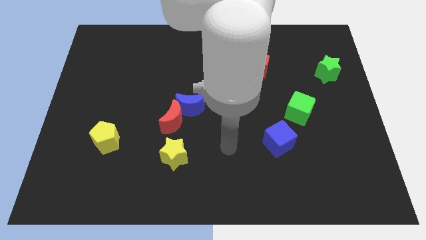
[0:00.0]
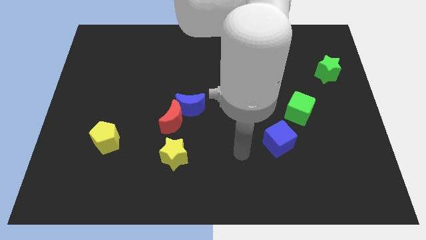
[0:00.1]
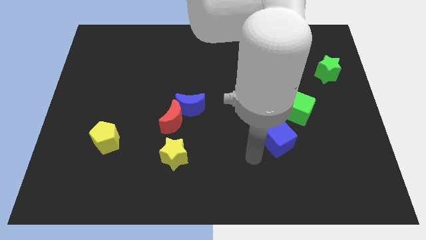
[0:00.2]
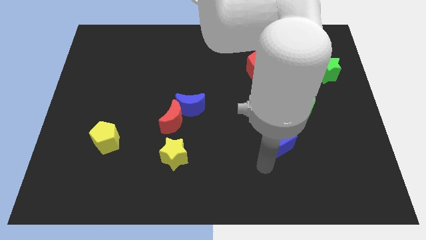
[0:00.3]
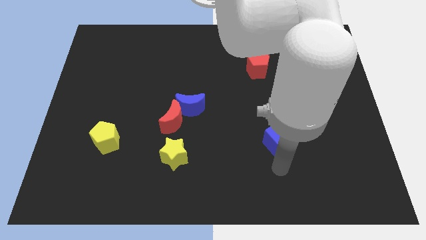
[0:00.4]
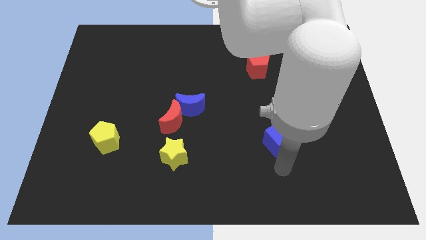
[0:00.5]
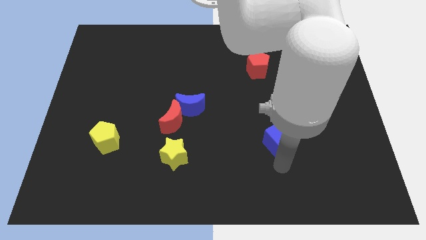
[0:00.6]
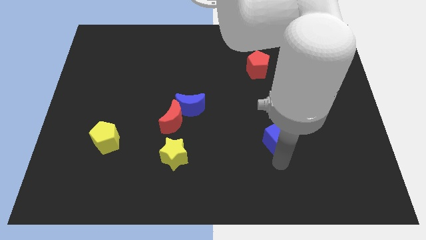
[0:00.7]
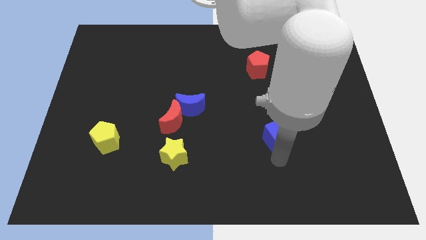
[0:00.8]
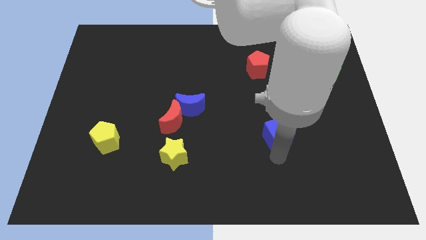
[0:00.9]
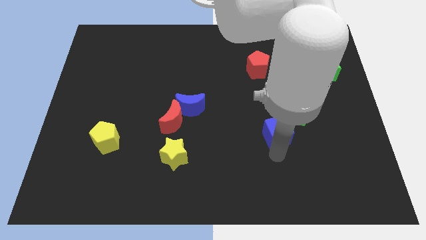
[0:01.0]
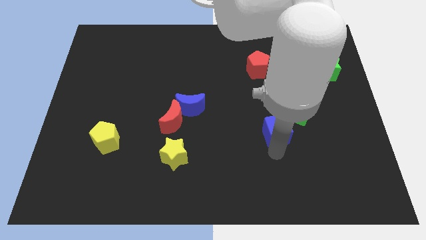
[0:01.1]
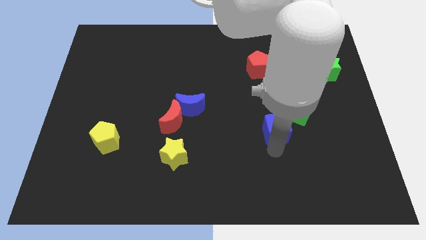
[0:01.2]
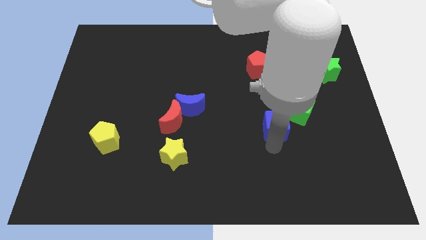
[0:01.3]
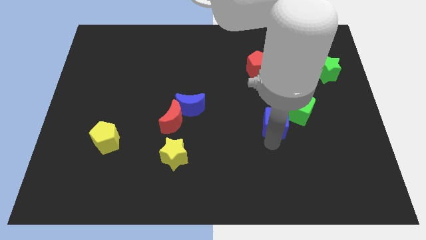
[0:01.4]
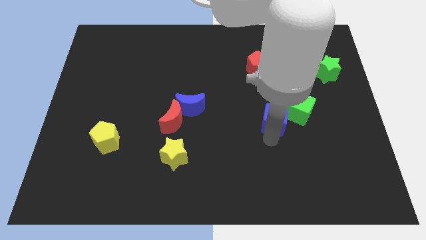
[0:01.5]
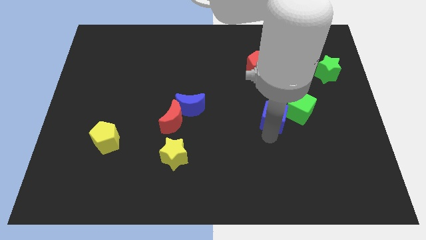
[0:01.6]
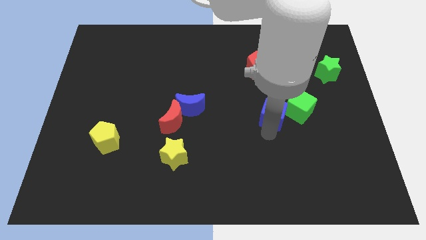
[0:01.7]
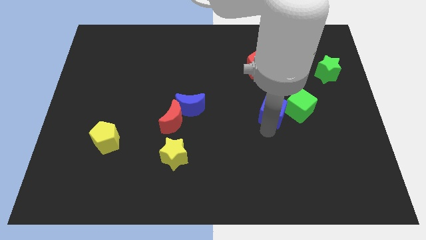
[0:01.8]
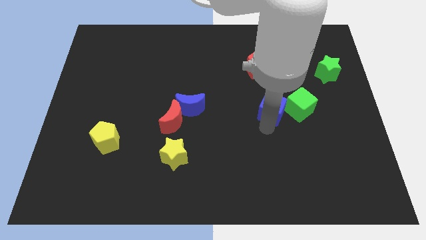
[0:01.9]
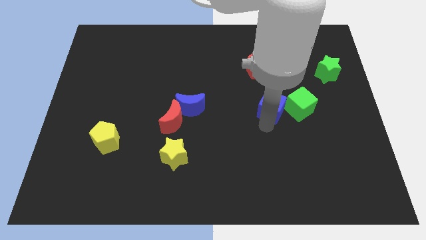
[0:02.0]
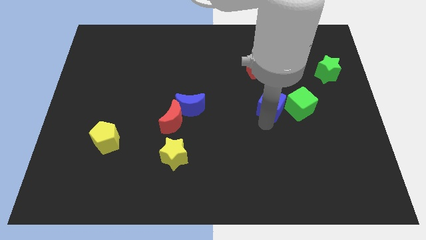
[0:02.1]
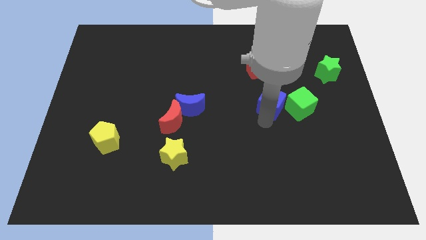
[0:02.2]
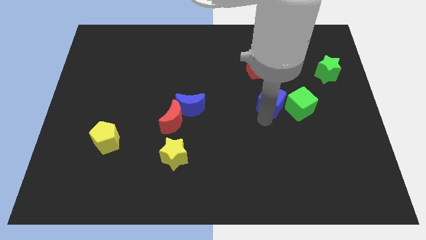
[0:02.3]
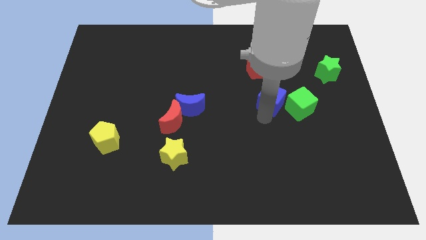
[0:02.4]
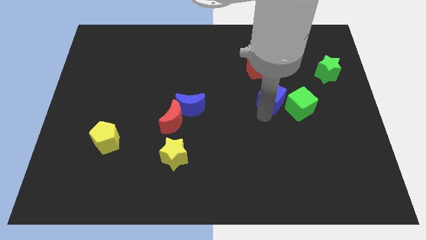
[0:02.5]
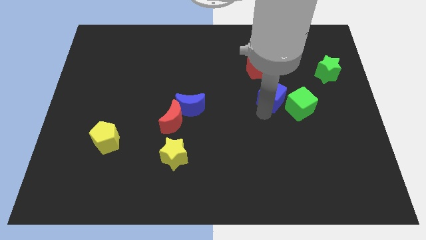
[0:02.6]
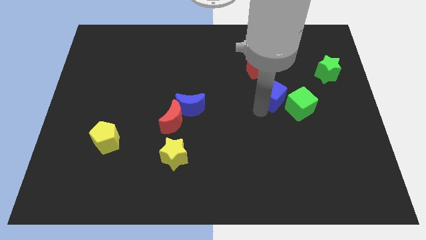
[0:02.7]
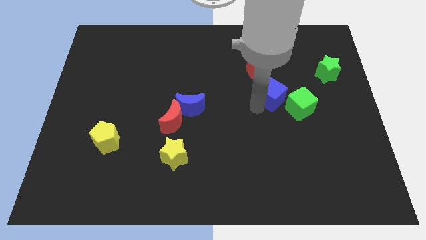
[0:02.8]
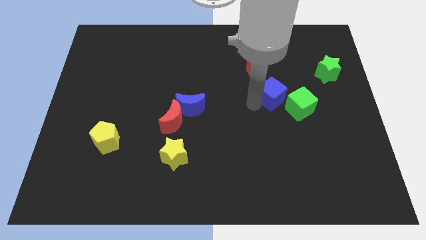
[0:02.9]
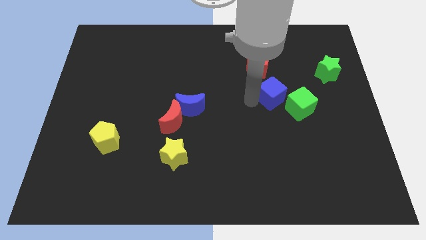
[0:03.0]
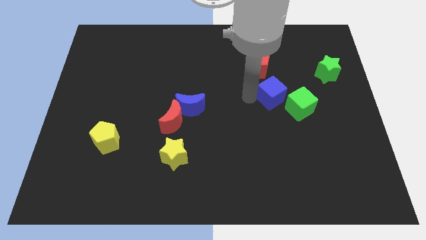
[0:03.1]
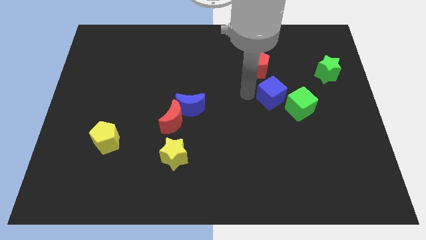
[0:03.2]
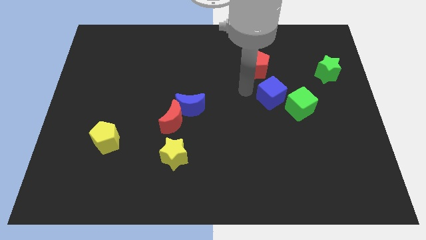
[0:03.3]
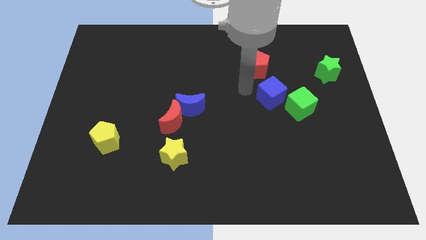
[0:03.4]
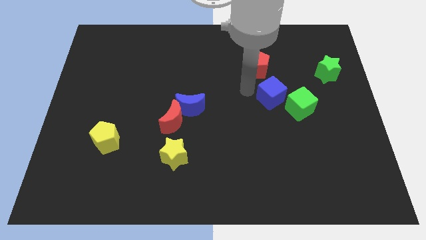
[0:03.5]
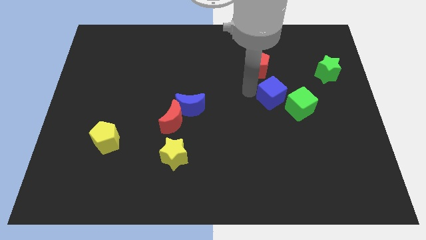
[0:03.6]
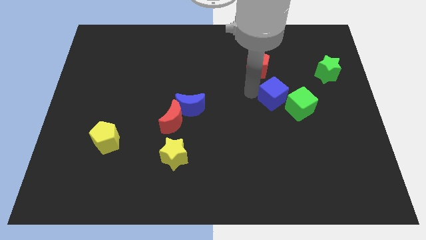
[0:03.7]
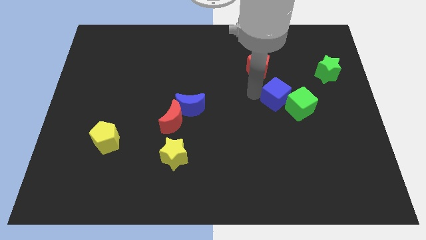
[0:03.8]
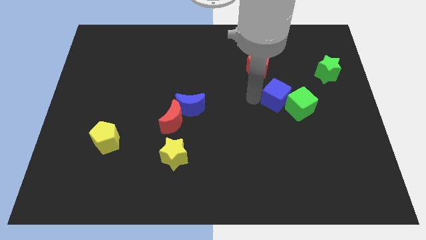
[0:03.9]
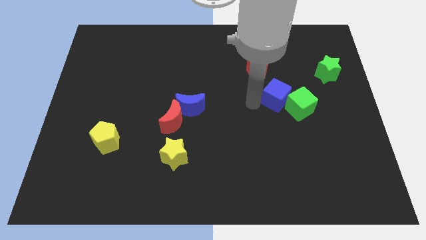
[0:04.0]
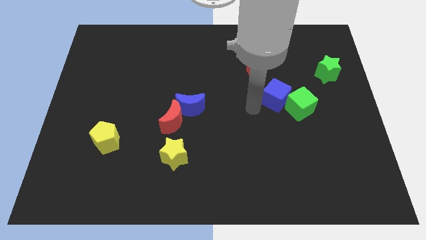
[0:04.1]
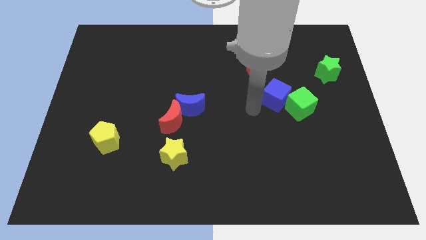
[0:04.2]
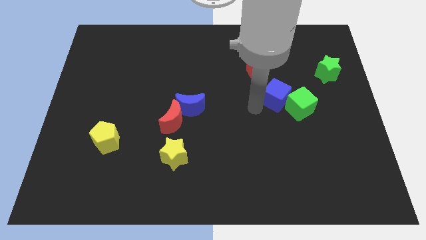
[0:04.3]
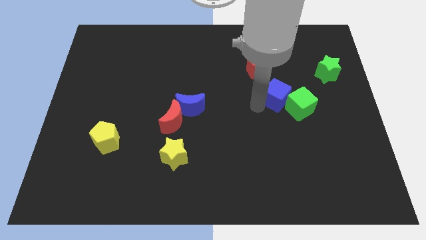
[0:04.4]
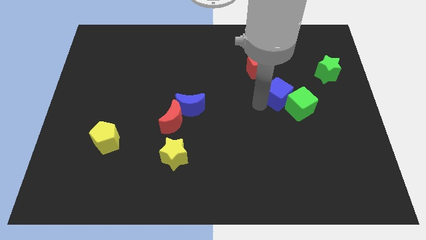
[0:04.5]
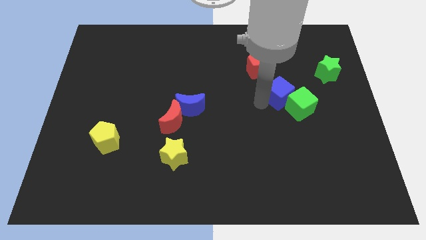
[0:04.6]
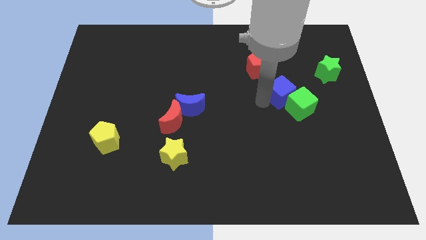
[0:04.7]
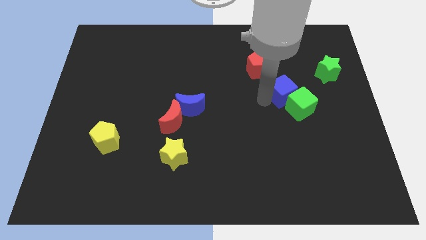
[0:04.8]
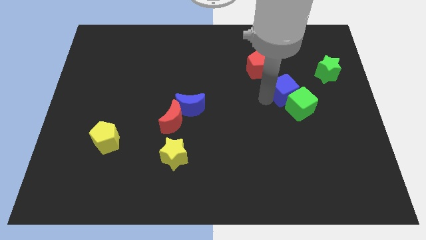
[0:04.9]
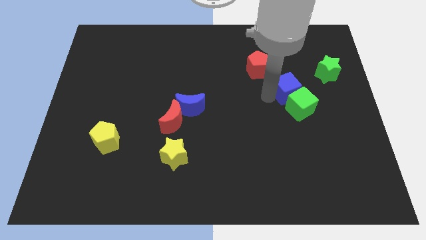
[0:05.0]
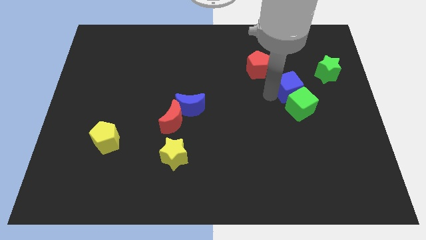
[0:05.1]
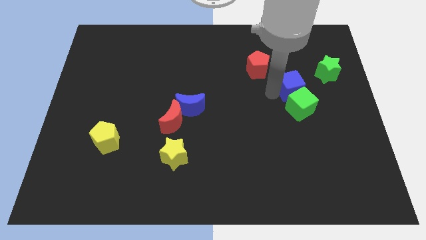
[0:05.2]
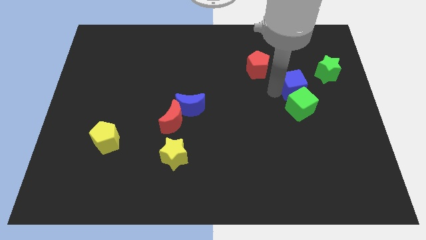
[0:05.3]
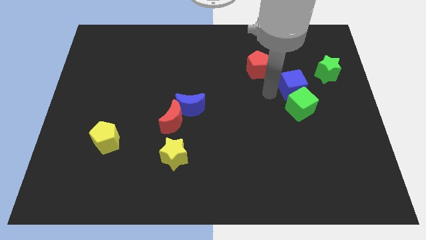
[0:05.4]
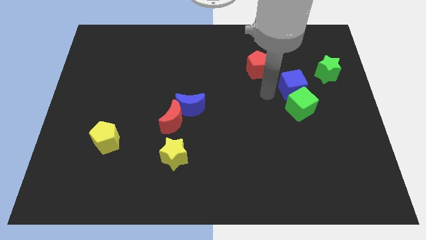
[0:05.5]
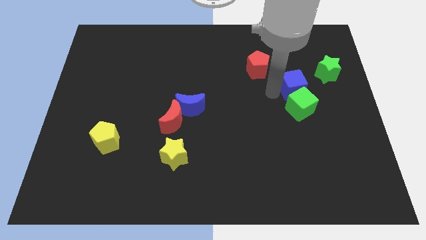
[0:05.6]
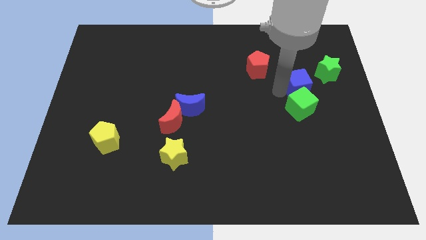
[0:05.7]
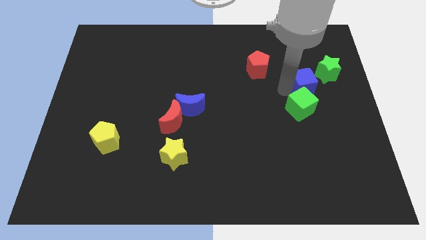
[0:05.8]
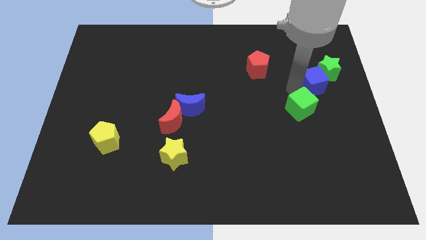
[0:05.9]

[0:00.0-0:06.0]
put the blue cube close to the green star

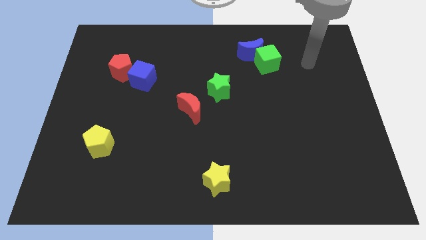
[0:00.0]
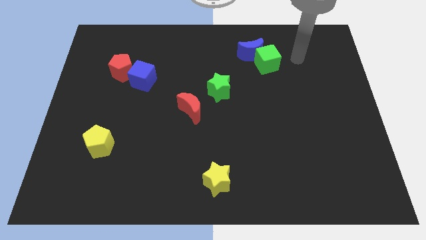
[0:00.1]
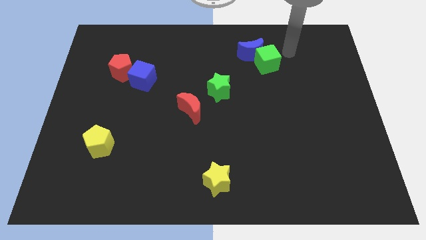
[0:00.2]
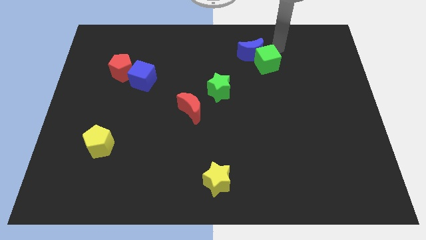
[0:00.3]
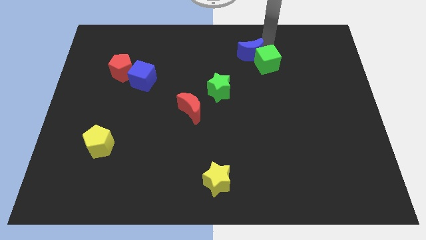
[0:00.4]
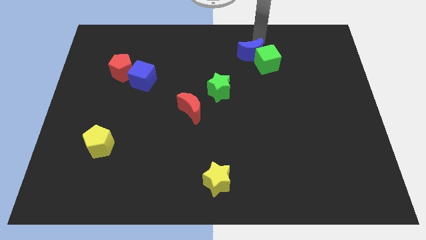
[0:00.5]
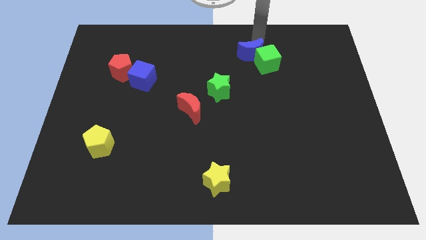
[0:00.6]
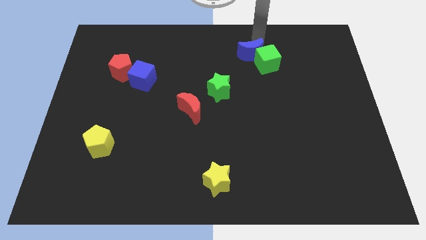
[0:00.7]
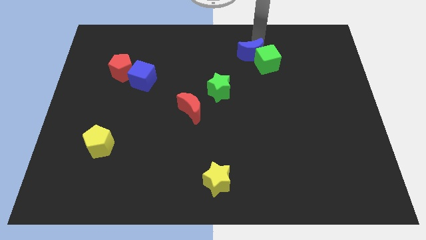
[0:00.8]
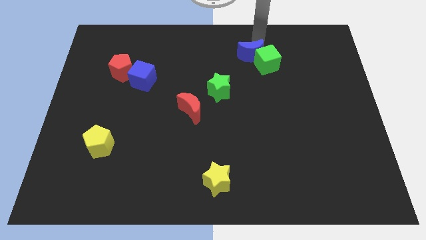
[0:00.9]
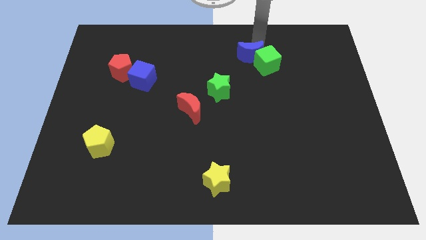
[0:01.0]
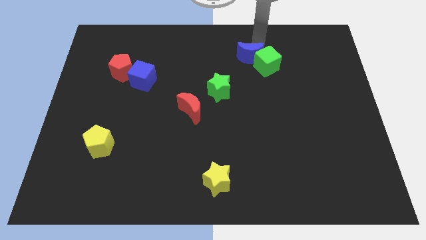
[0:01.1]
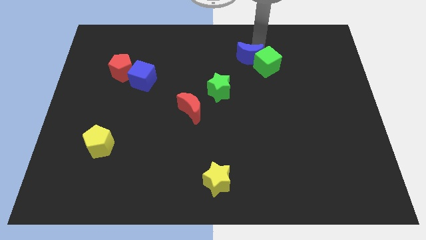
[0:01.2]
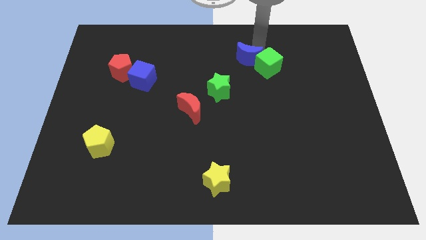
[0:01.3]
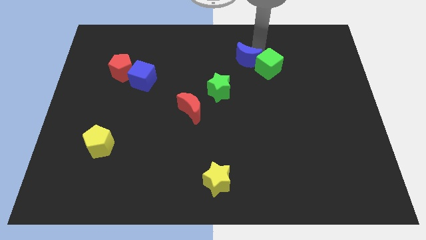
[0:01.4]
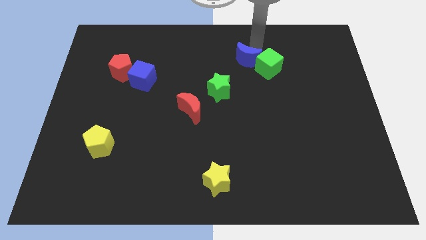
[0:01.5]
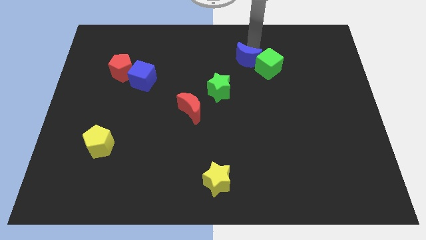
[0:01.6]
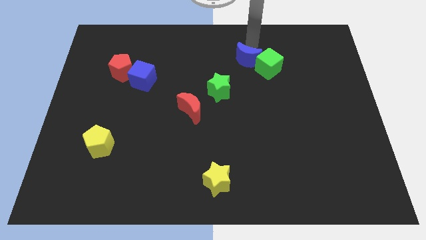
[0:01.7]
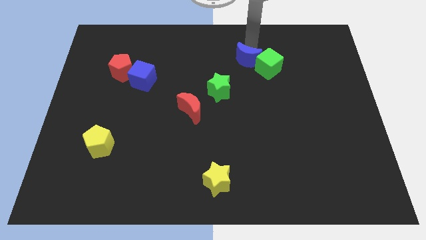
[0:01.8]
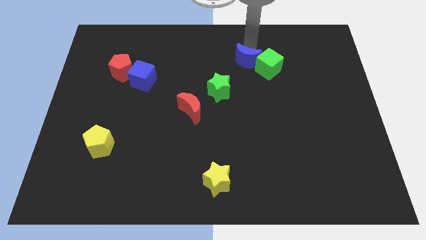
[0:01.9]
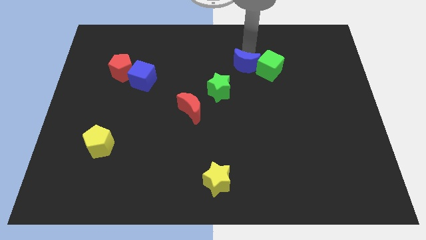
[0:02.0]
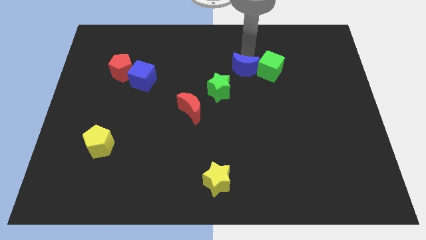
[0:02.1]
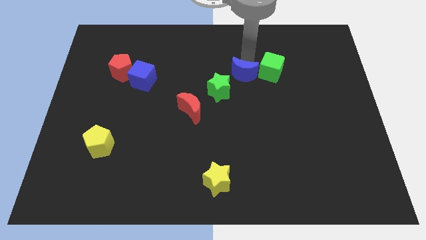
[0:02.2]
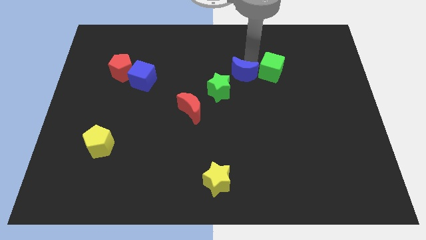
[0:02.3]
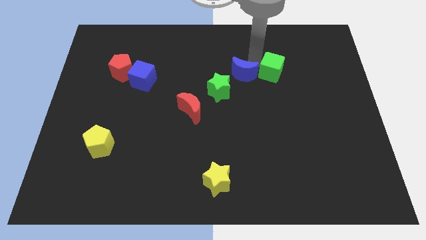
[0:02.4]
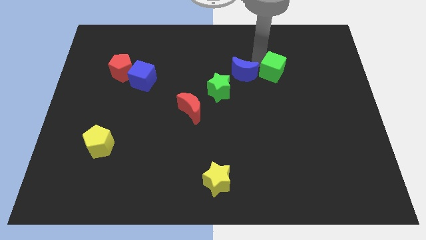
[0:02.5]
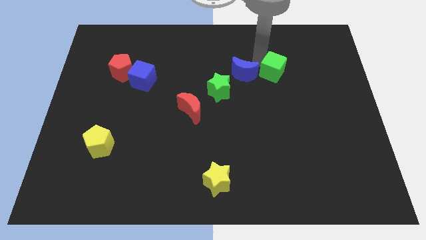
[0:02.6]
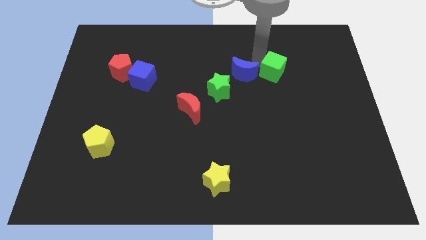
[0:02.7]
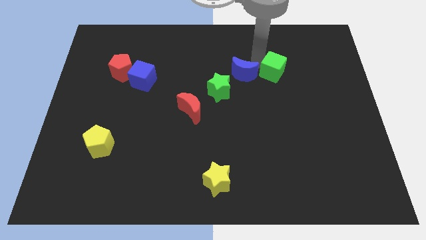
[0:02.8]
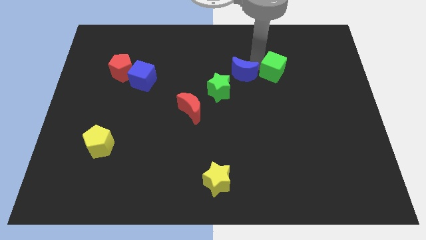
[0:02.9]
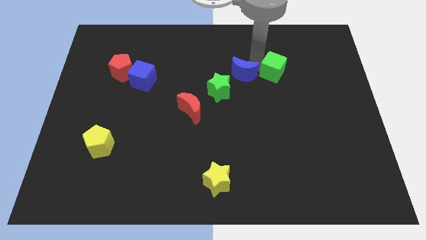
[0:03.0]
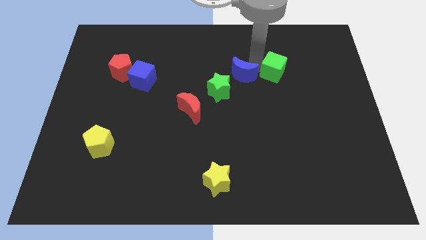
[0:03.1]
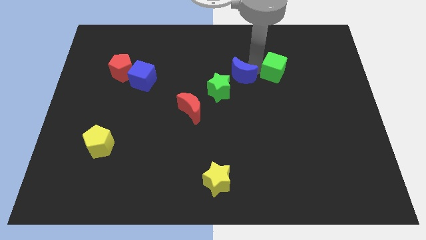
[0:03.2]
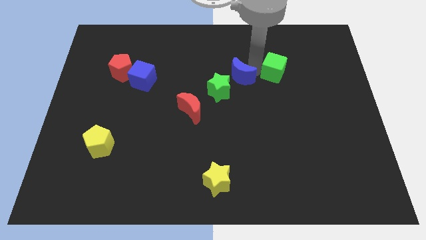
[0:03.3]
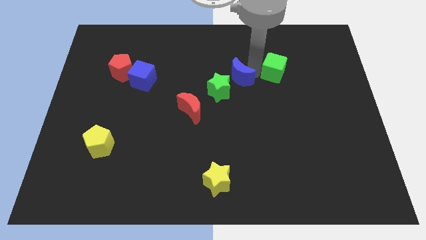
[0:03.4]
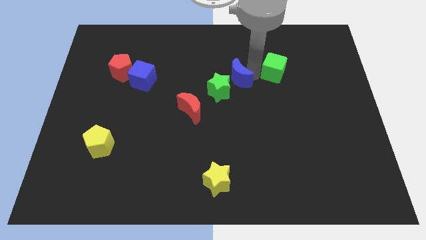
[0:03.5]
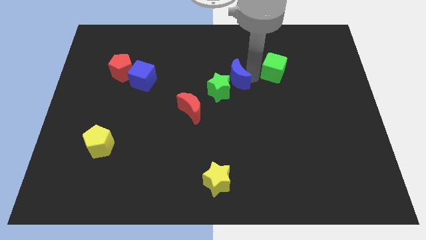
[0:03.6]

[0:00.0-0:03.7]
put the blue moon close to the green star
